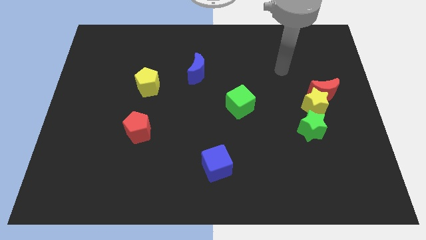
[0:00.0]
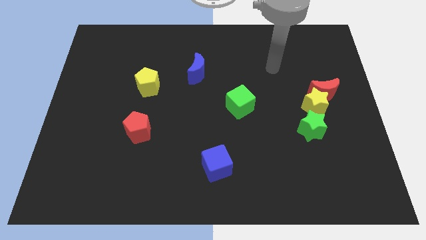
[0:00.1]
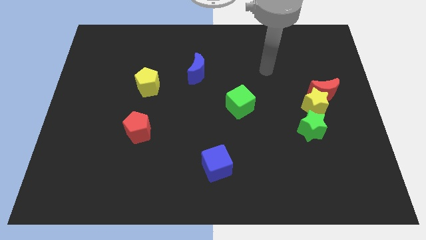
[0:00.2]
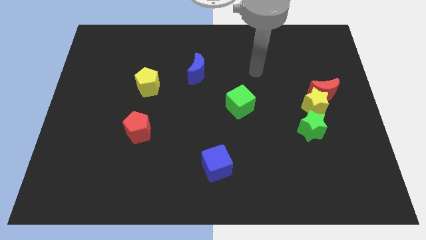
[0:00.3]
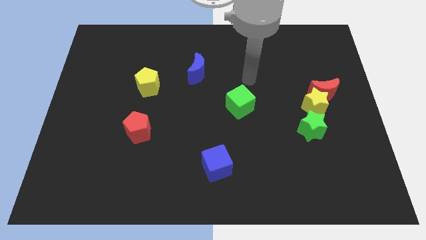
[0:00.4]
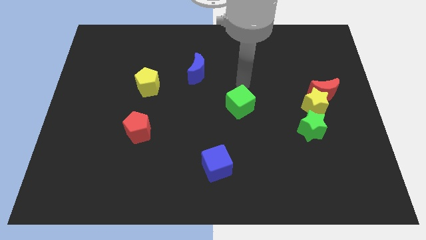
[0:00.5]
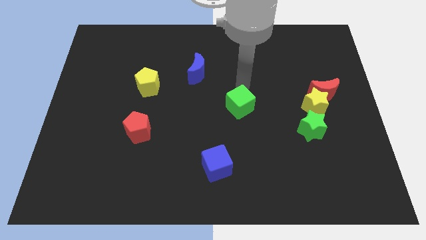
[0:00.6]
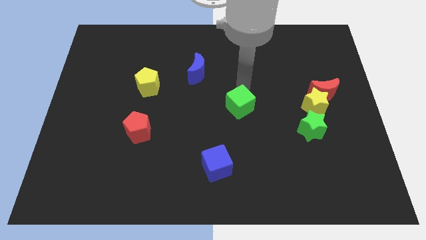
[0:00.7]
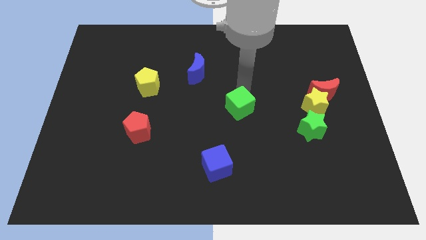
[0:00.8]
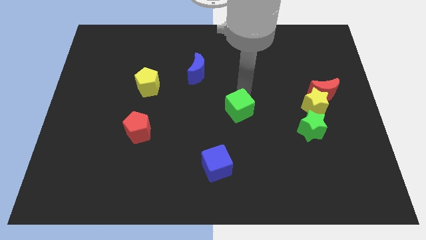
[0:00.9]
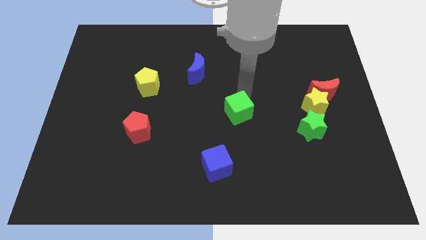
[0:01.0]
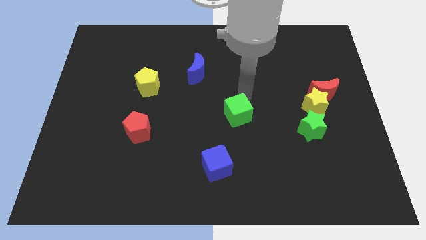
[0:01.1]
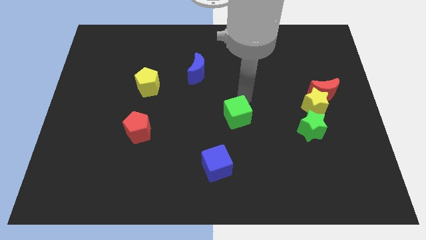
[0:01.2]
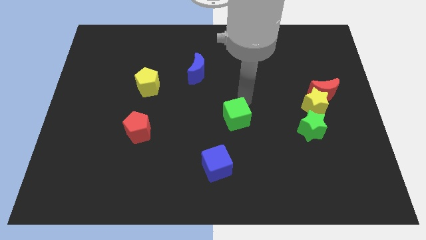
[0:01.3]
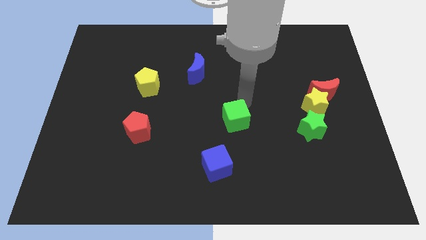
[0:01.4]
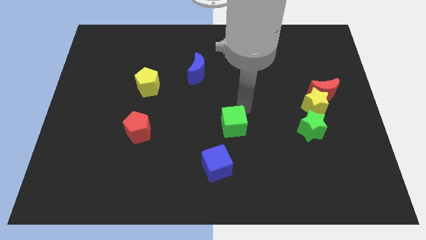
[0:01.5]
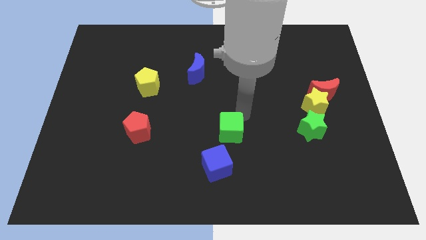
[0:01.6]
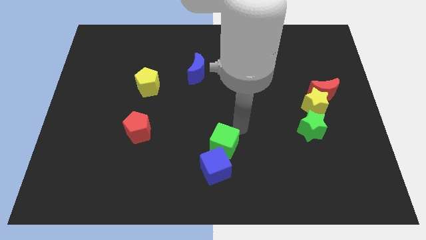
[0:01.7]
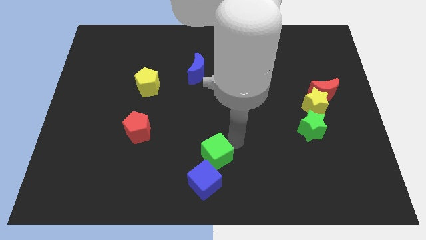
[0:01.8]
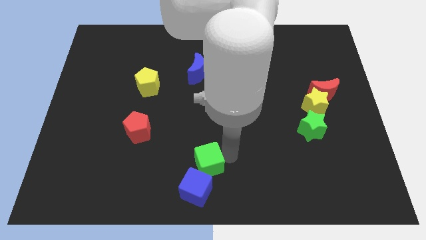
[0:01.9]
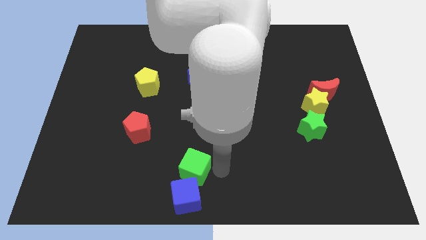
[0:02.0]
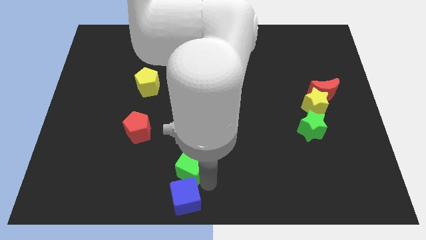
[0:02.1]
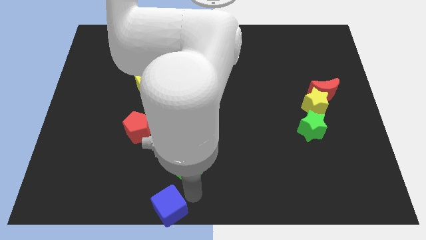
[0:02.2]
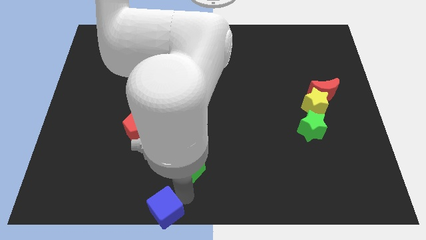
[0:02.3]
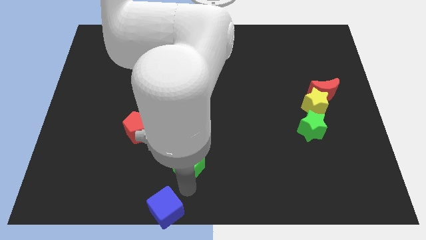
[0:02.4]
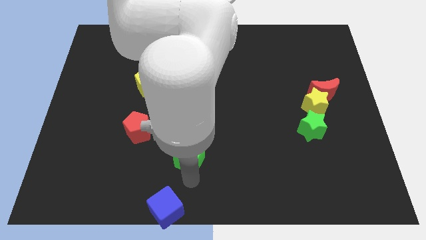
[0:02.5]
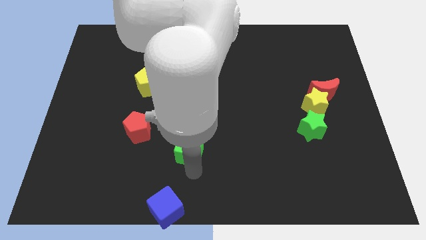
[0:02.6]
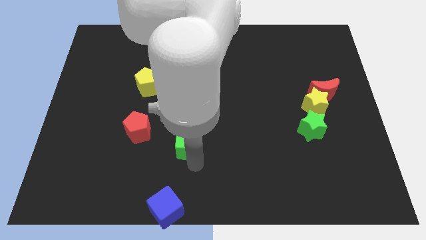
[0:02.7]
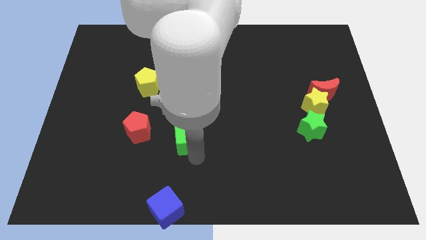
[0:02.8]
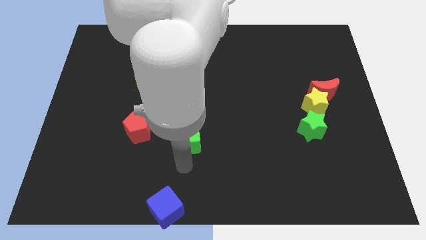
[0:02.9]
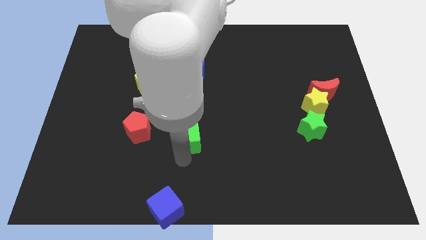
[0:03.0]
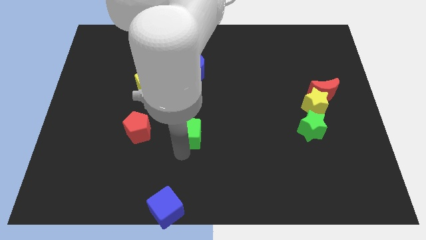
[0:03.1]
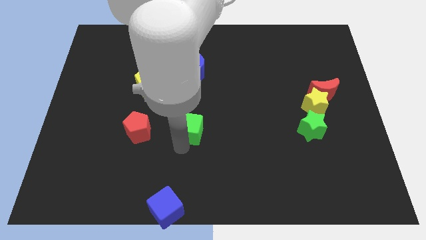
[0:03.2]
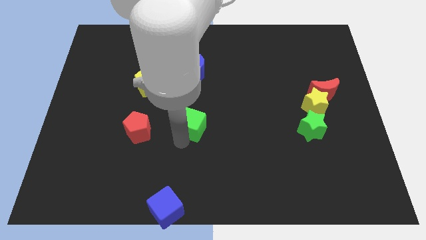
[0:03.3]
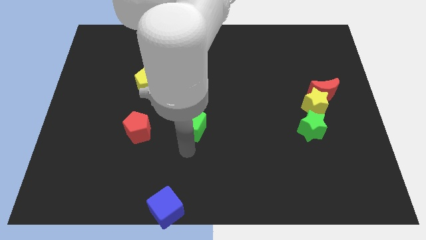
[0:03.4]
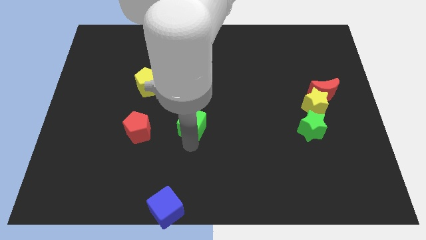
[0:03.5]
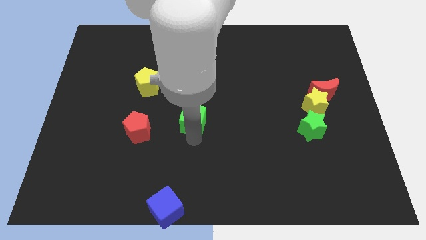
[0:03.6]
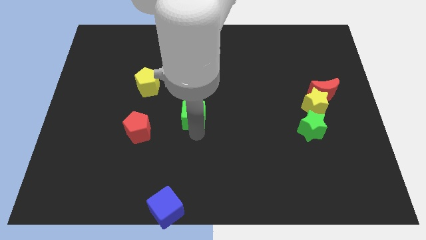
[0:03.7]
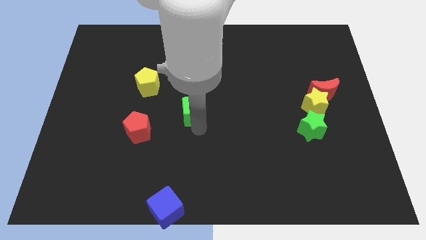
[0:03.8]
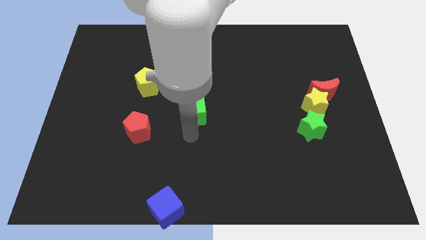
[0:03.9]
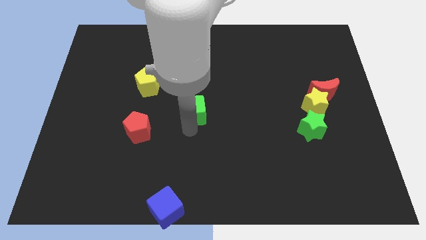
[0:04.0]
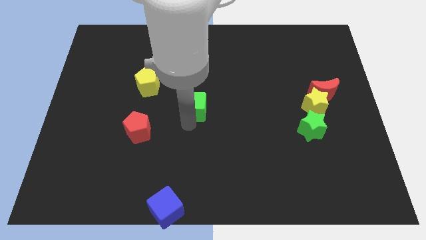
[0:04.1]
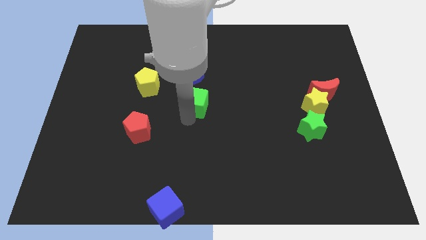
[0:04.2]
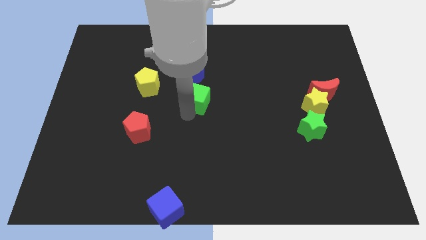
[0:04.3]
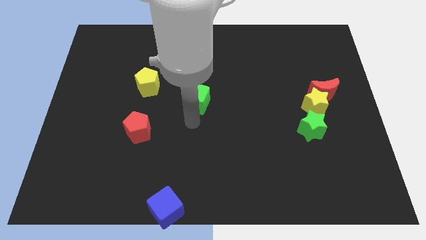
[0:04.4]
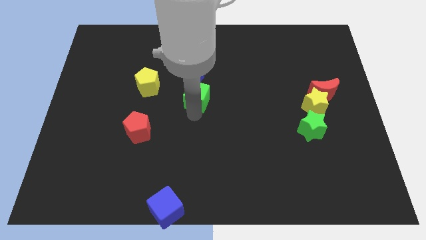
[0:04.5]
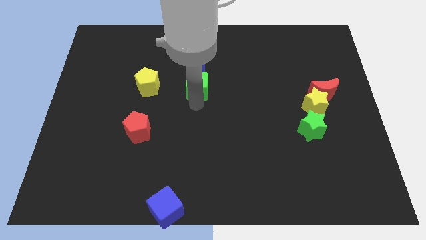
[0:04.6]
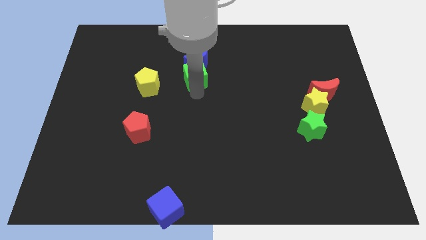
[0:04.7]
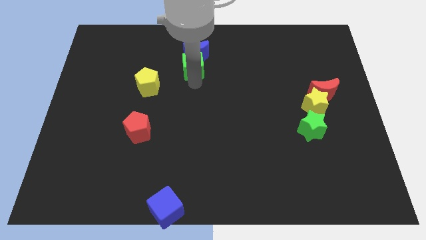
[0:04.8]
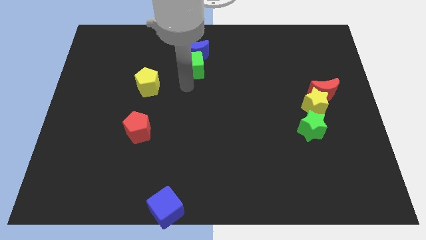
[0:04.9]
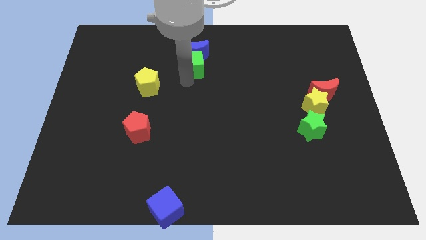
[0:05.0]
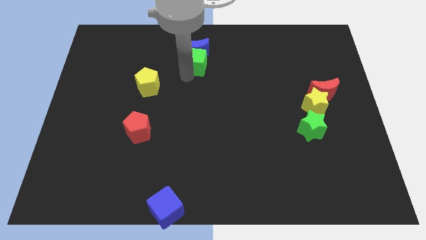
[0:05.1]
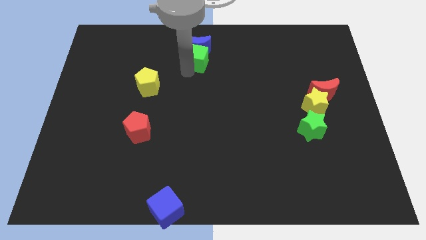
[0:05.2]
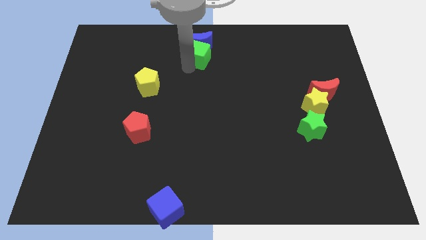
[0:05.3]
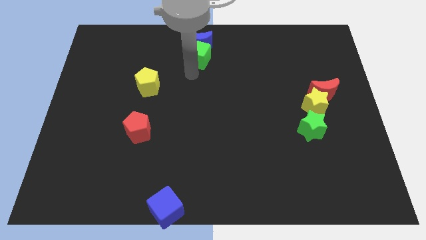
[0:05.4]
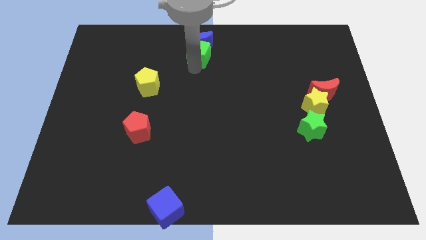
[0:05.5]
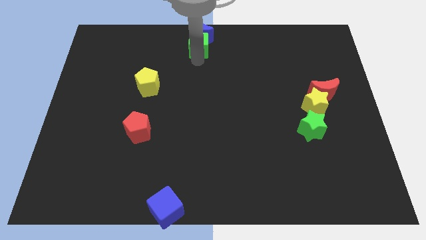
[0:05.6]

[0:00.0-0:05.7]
push the green cube to the top side

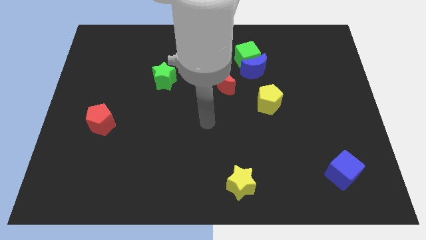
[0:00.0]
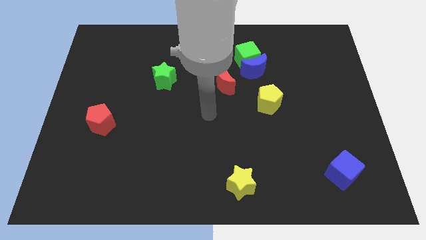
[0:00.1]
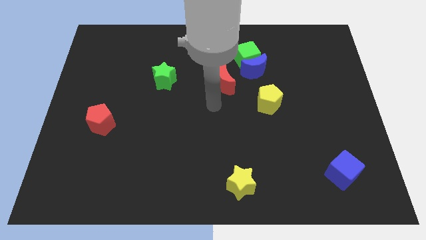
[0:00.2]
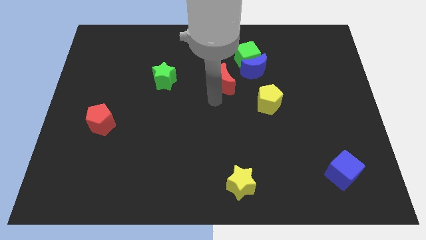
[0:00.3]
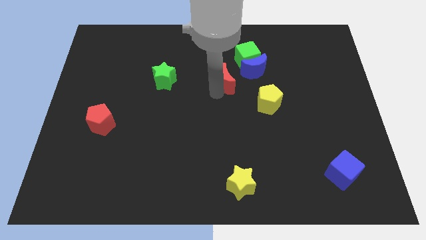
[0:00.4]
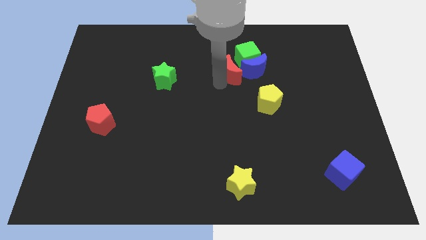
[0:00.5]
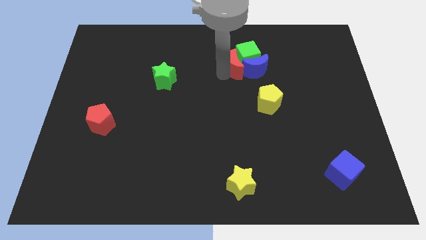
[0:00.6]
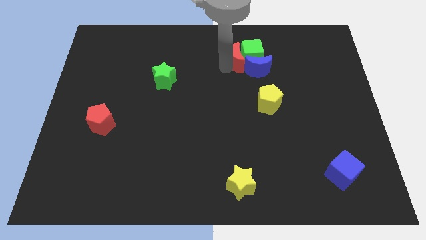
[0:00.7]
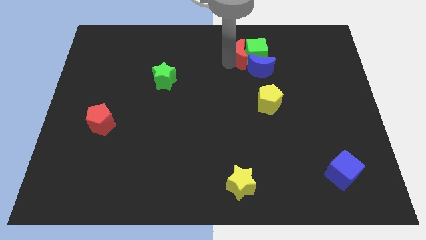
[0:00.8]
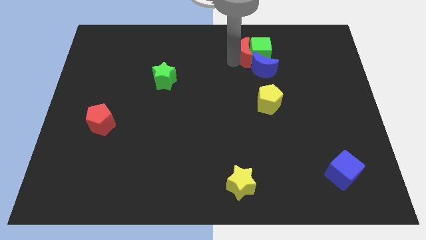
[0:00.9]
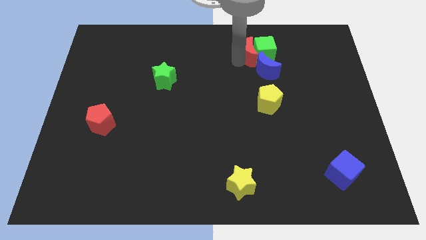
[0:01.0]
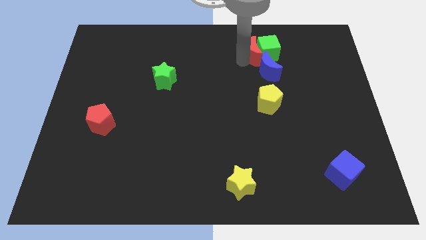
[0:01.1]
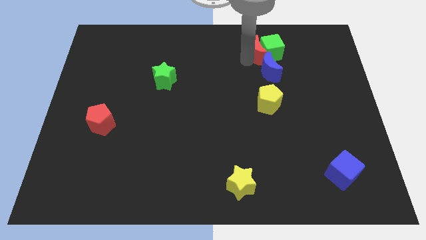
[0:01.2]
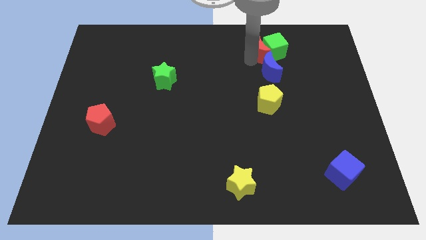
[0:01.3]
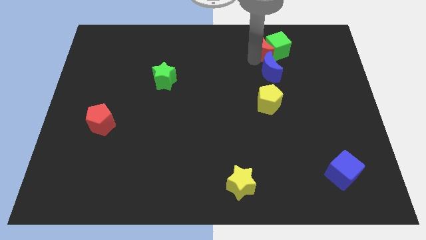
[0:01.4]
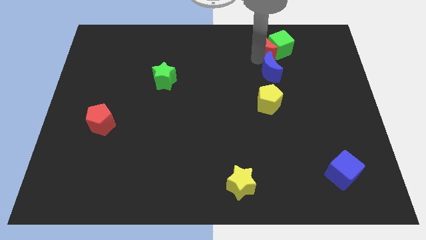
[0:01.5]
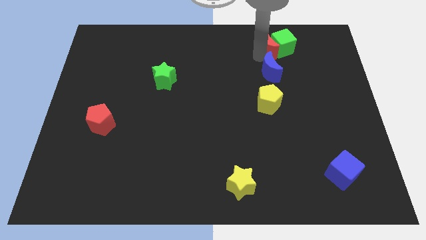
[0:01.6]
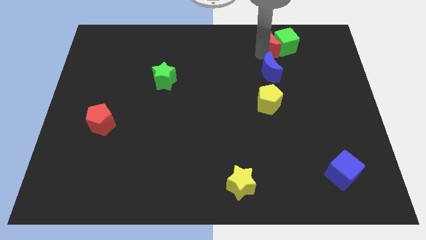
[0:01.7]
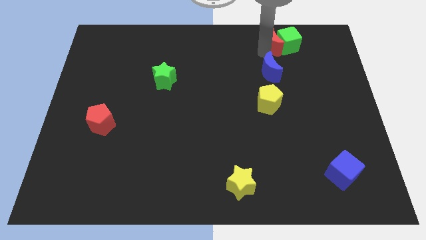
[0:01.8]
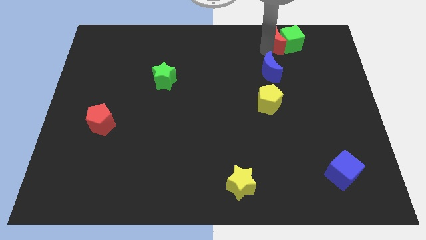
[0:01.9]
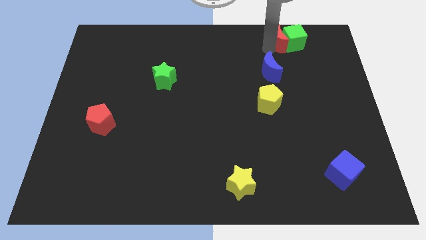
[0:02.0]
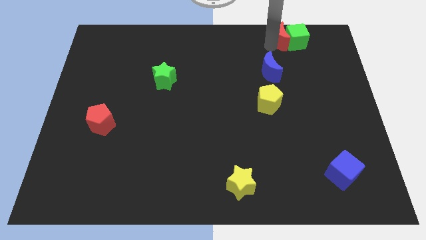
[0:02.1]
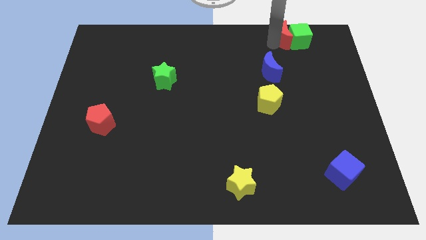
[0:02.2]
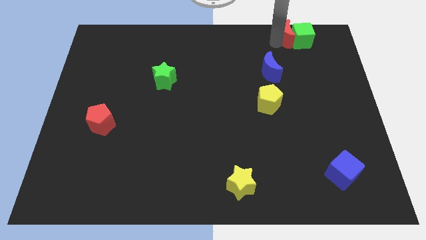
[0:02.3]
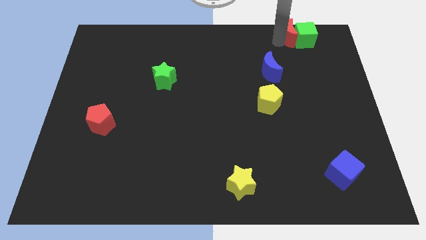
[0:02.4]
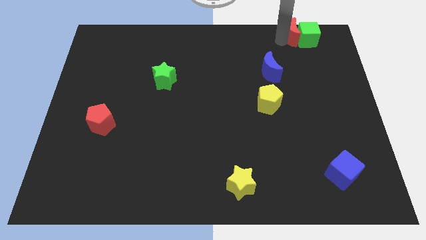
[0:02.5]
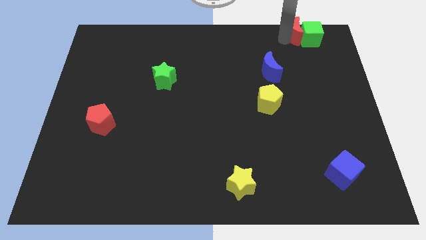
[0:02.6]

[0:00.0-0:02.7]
put the green cube to the top right of the board
